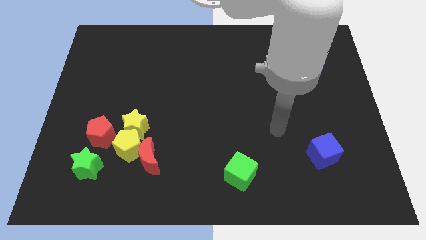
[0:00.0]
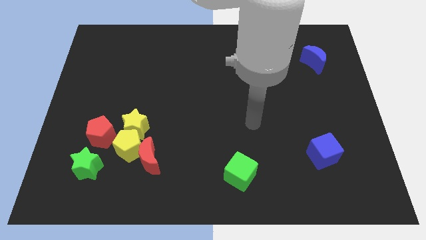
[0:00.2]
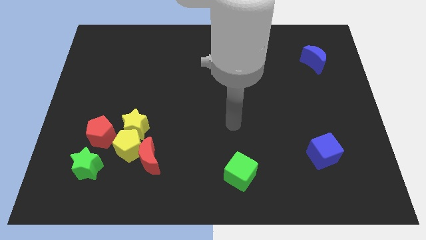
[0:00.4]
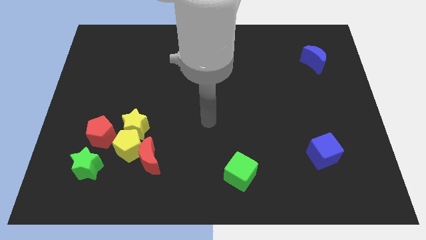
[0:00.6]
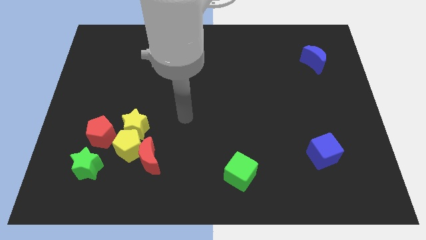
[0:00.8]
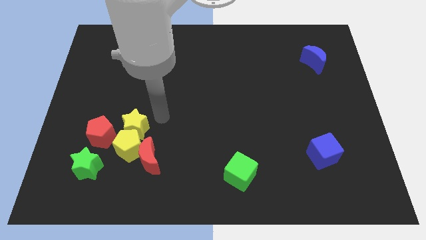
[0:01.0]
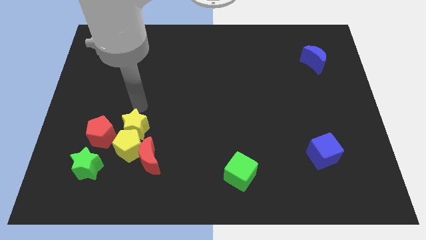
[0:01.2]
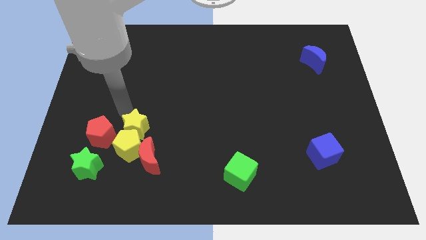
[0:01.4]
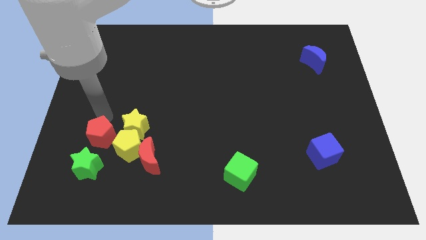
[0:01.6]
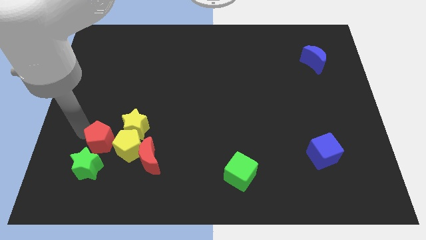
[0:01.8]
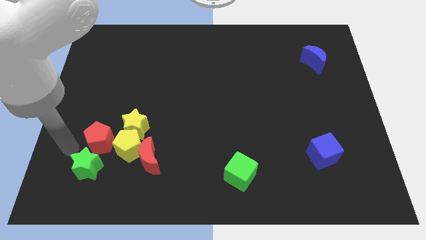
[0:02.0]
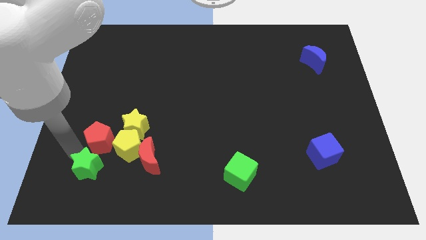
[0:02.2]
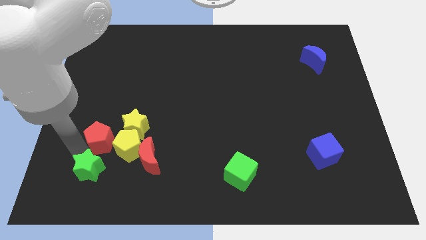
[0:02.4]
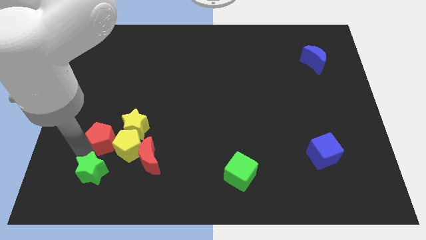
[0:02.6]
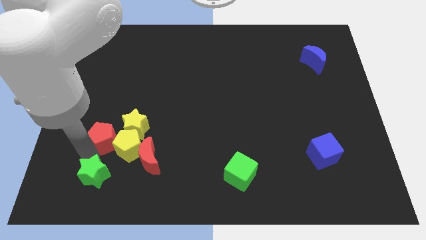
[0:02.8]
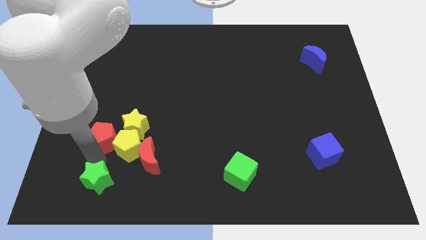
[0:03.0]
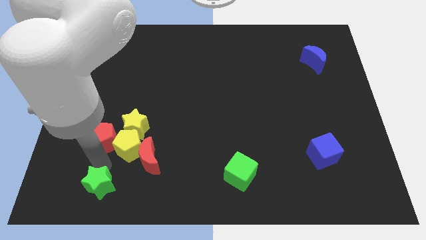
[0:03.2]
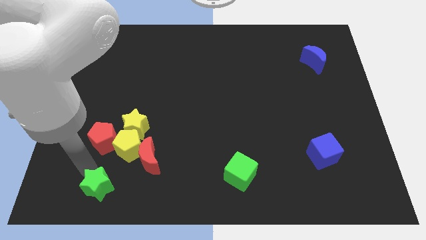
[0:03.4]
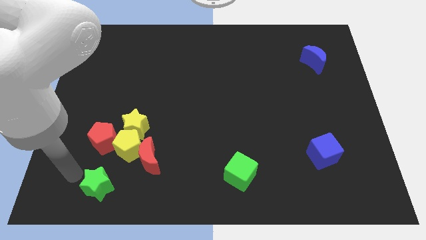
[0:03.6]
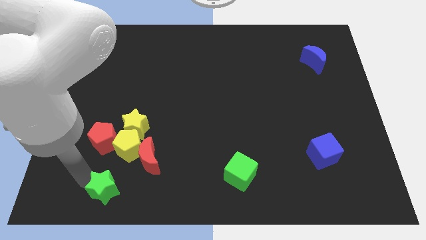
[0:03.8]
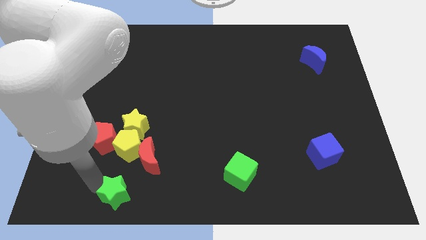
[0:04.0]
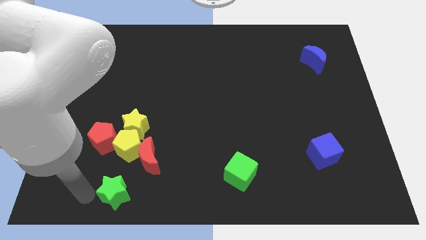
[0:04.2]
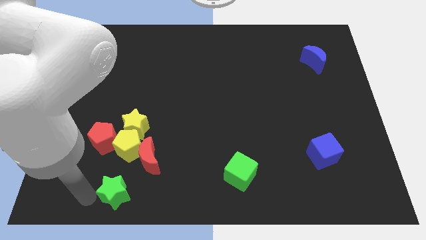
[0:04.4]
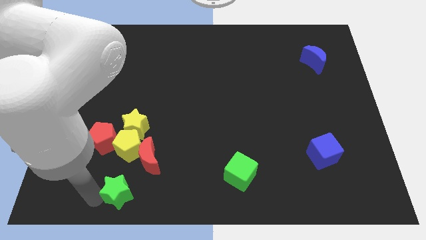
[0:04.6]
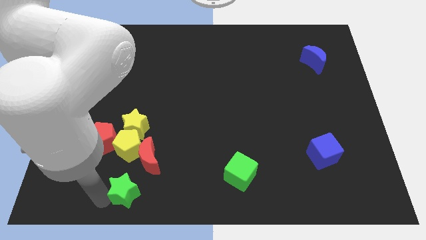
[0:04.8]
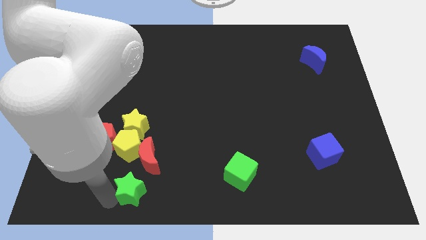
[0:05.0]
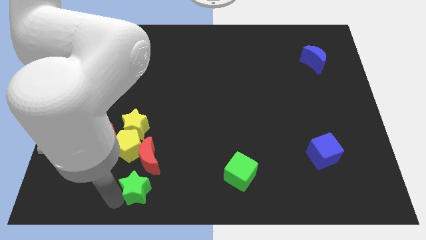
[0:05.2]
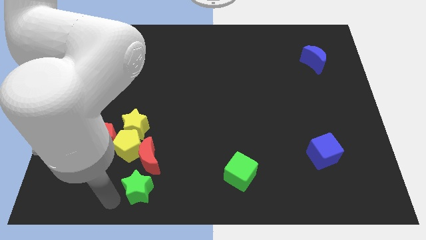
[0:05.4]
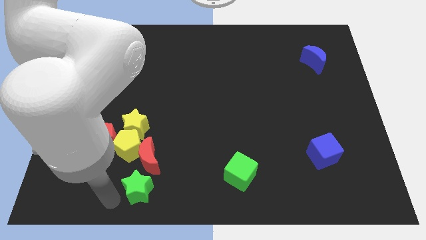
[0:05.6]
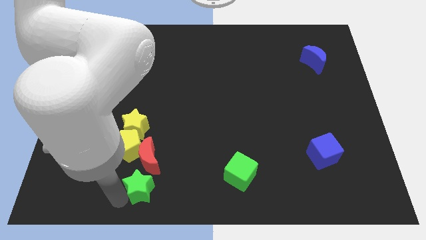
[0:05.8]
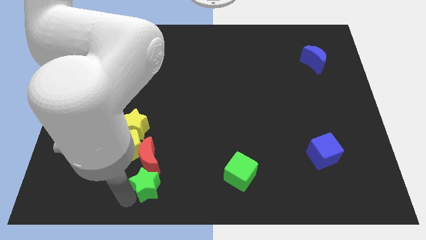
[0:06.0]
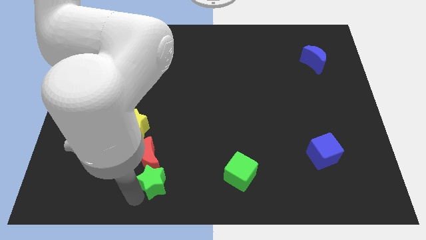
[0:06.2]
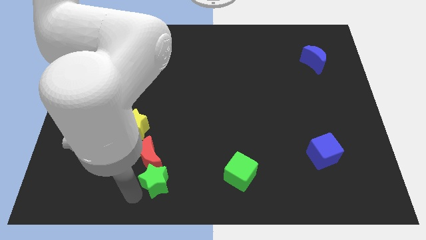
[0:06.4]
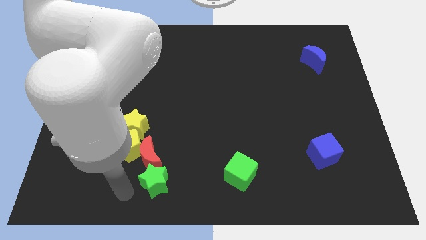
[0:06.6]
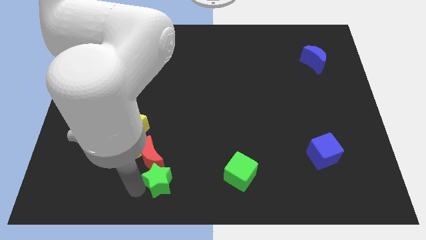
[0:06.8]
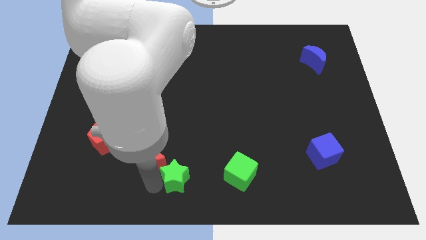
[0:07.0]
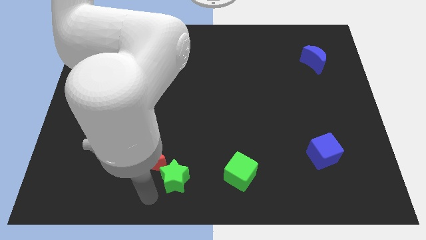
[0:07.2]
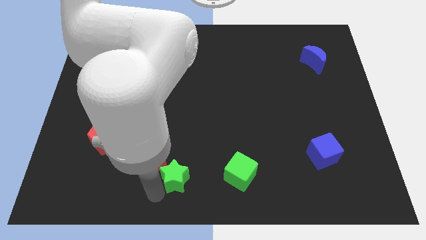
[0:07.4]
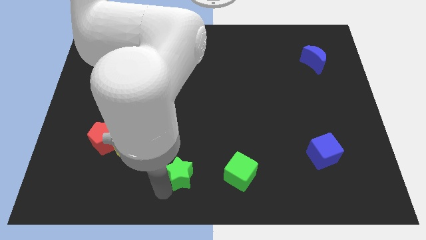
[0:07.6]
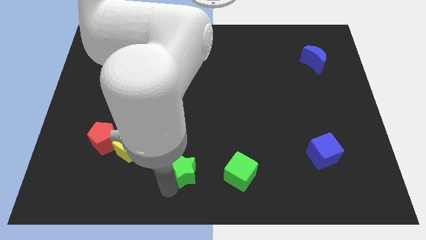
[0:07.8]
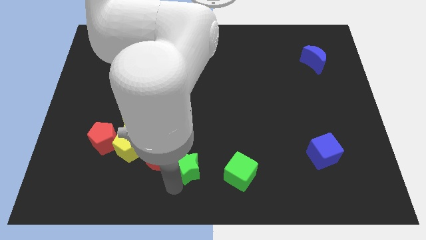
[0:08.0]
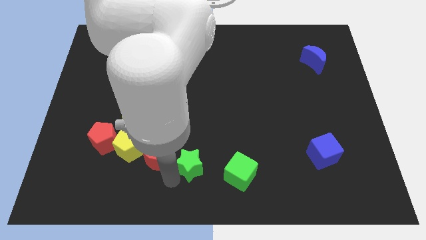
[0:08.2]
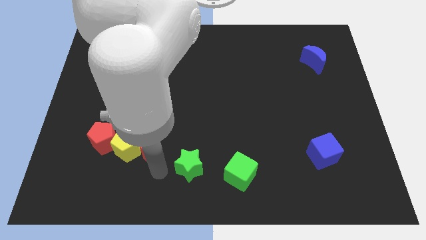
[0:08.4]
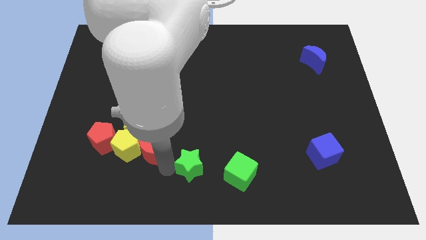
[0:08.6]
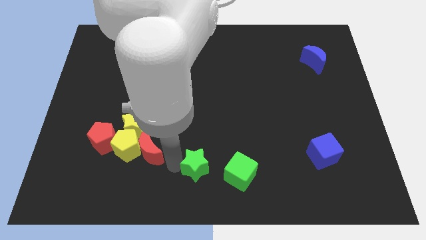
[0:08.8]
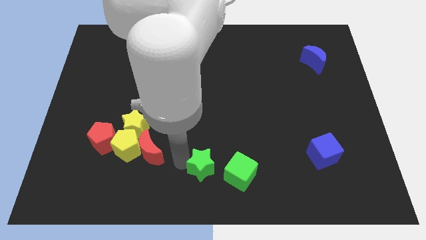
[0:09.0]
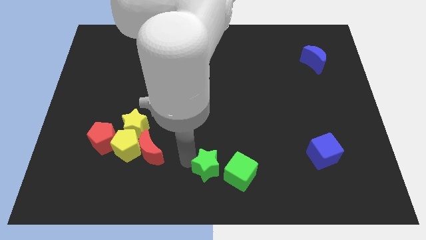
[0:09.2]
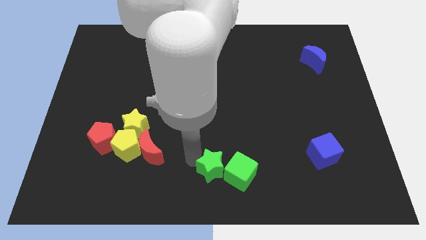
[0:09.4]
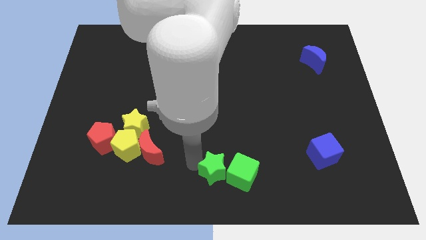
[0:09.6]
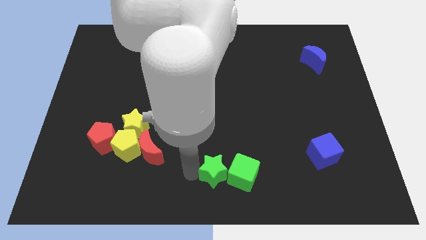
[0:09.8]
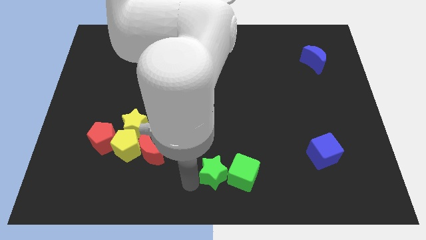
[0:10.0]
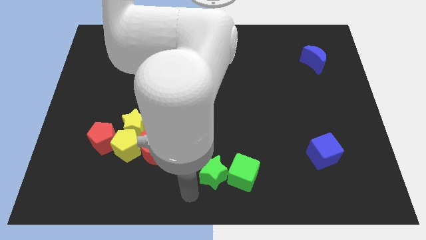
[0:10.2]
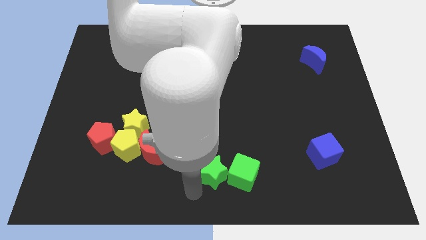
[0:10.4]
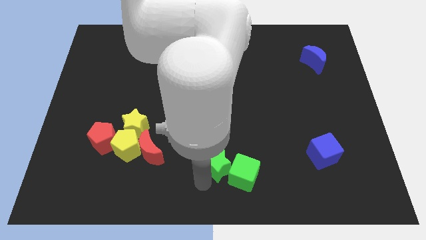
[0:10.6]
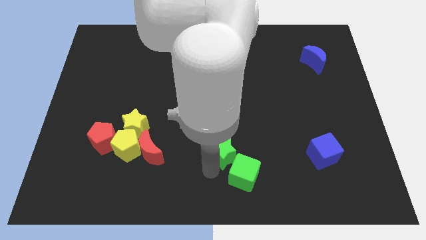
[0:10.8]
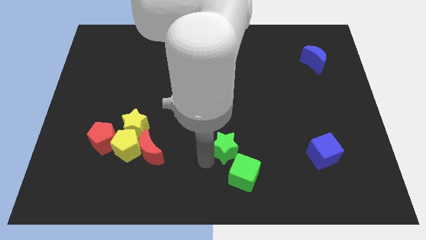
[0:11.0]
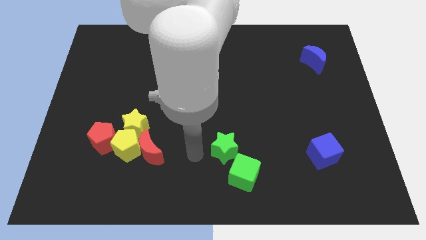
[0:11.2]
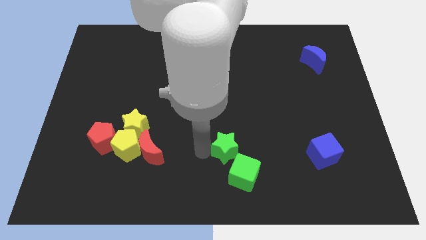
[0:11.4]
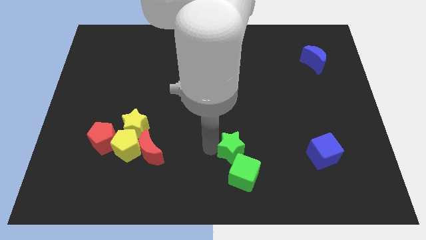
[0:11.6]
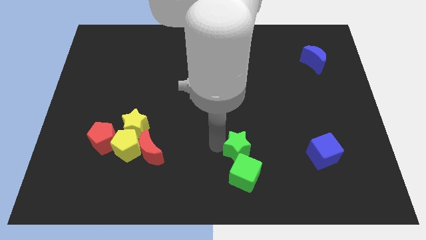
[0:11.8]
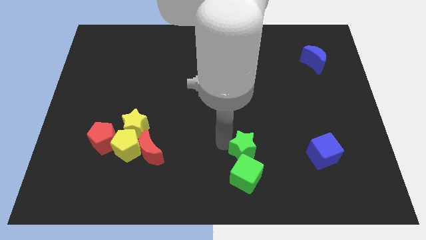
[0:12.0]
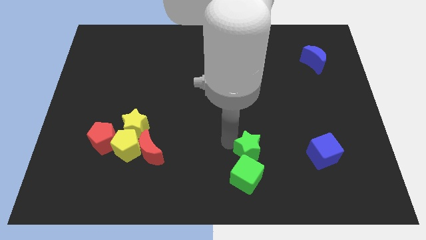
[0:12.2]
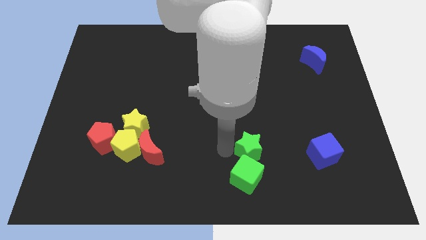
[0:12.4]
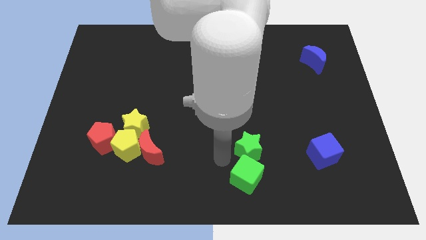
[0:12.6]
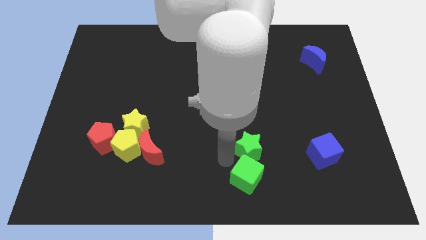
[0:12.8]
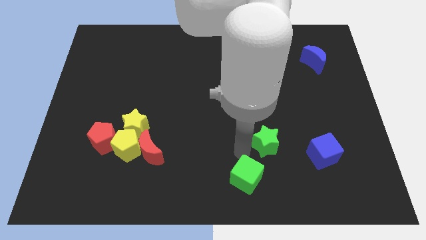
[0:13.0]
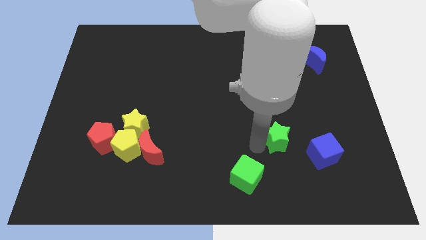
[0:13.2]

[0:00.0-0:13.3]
move the green star diagonally up and to the left of the blue cube
